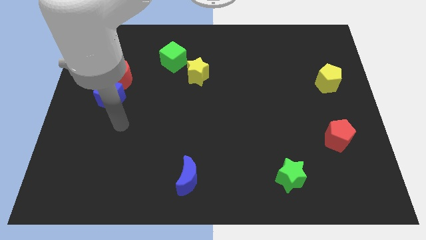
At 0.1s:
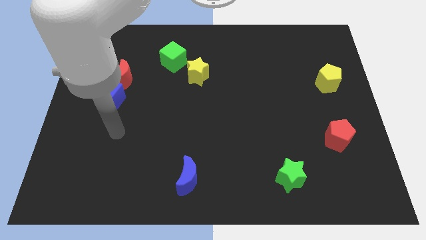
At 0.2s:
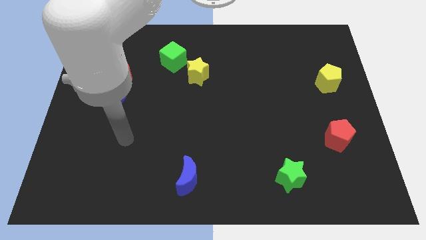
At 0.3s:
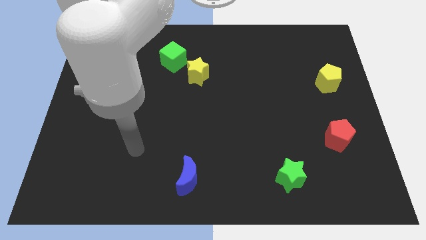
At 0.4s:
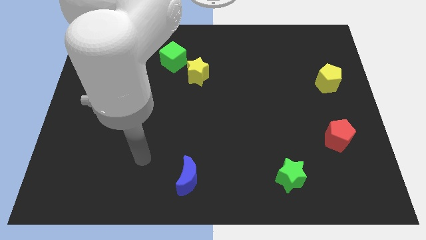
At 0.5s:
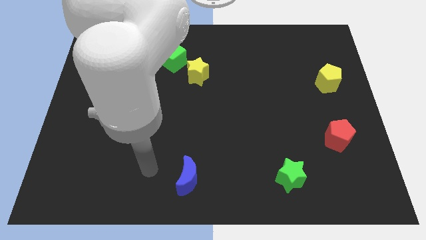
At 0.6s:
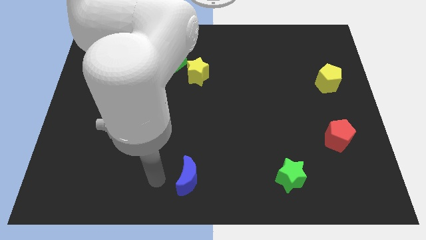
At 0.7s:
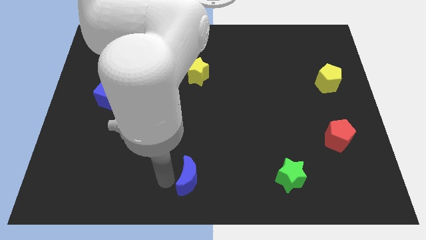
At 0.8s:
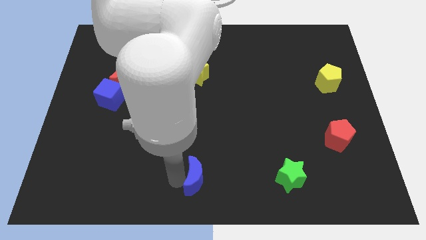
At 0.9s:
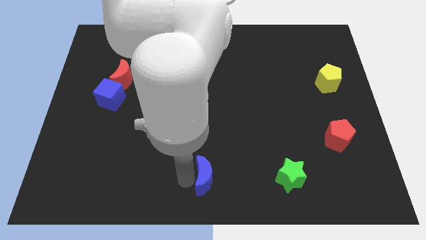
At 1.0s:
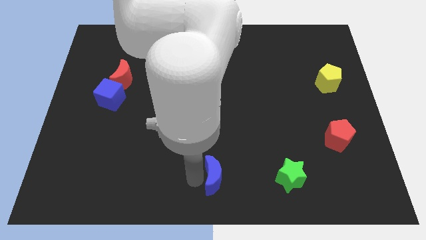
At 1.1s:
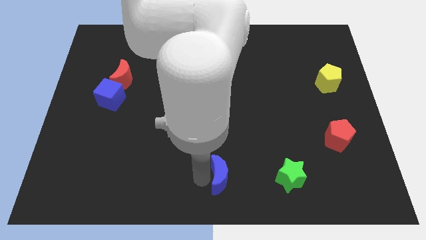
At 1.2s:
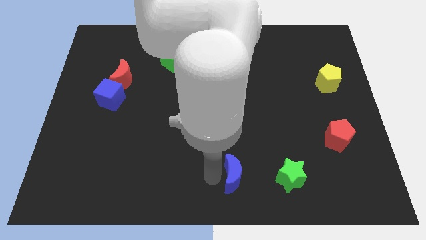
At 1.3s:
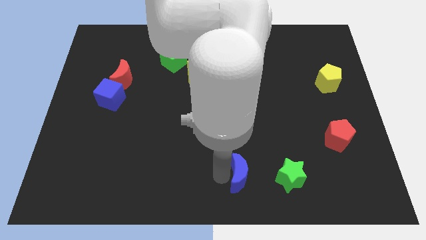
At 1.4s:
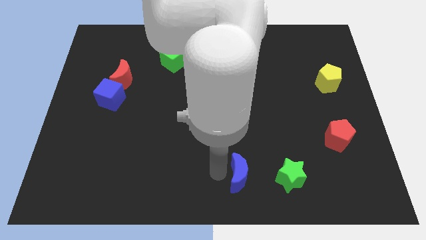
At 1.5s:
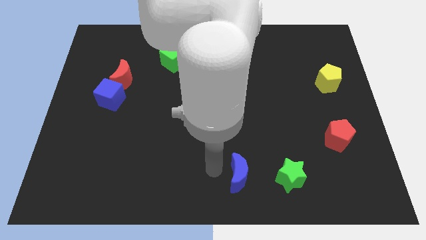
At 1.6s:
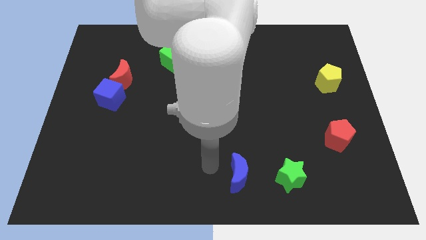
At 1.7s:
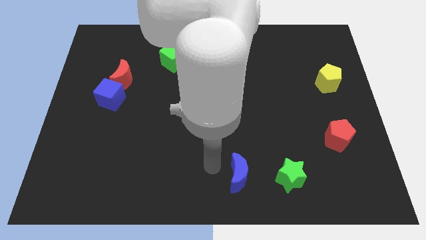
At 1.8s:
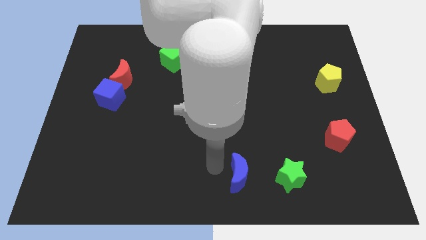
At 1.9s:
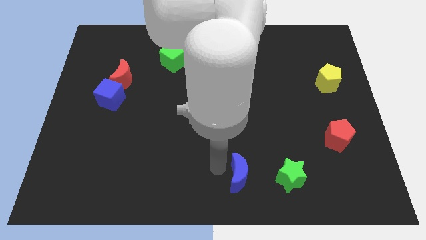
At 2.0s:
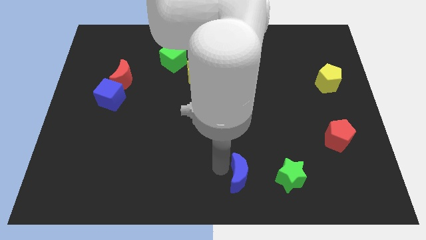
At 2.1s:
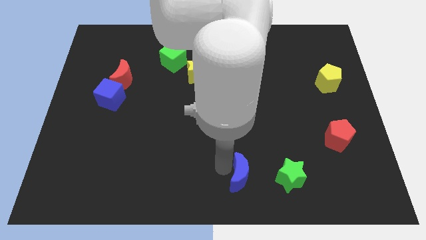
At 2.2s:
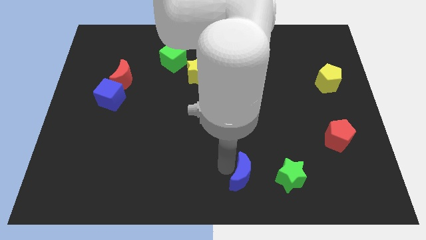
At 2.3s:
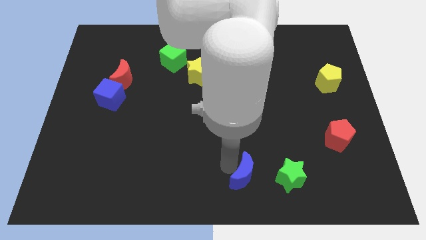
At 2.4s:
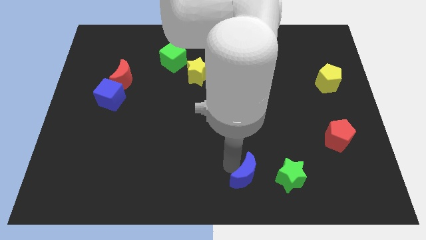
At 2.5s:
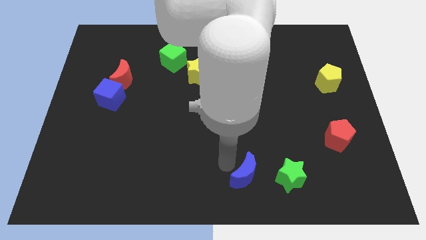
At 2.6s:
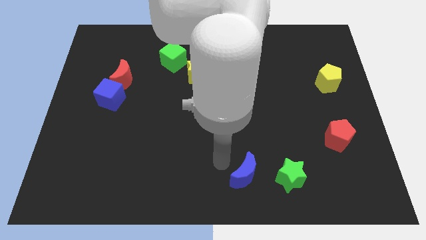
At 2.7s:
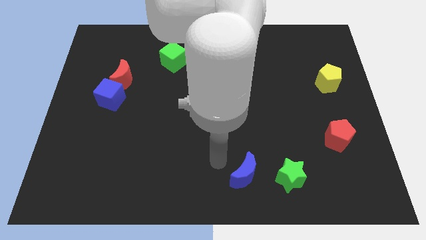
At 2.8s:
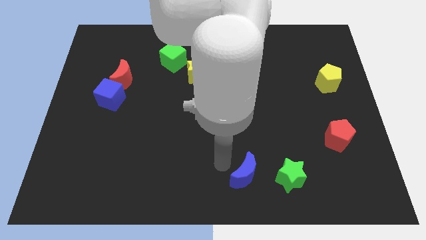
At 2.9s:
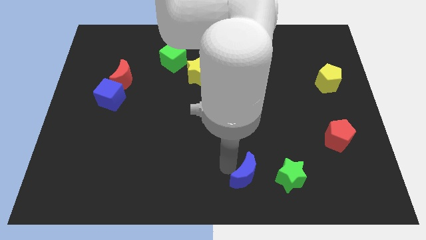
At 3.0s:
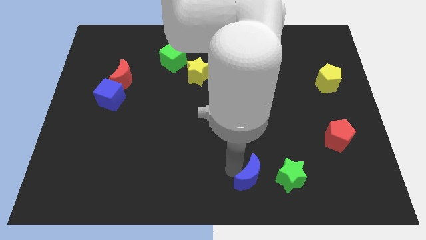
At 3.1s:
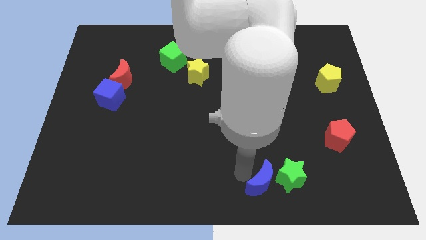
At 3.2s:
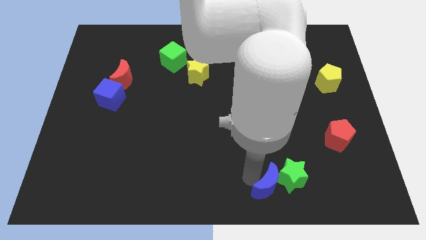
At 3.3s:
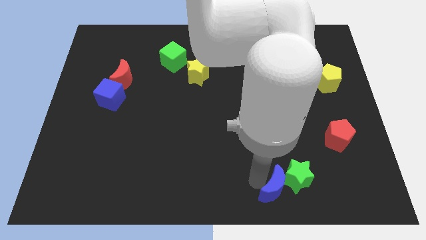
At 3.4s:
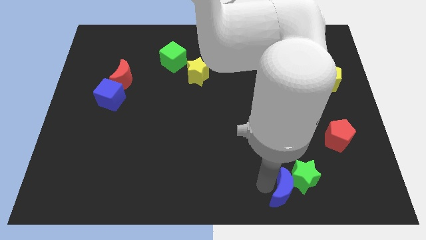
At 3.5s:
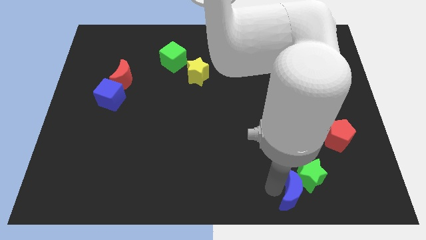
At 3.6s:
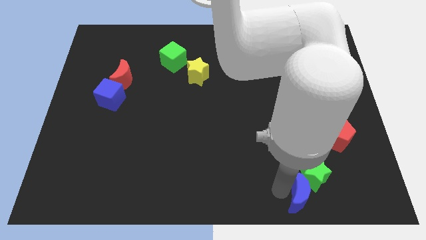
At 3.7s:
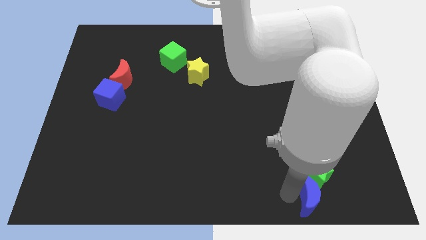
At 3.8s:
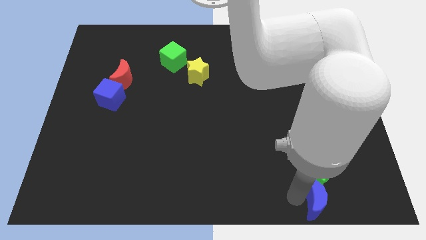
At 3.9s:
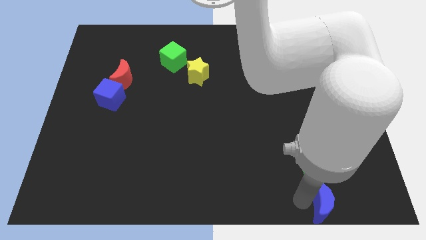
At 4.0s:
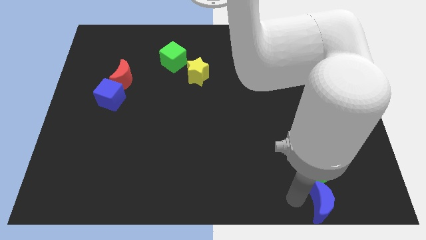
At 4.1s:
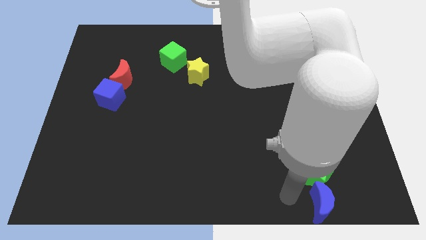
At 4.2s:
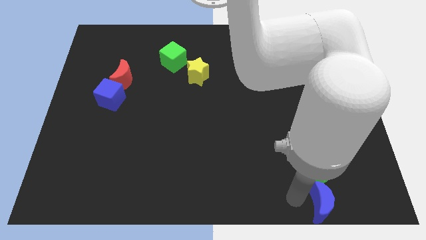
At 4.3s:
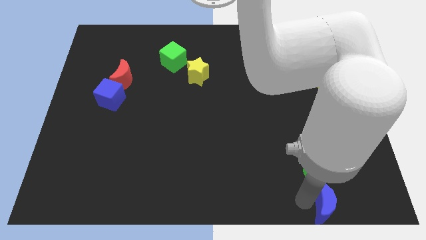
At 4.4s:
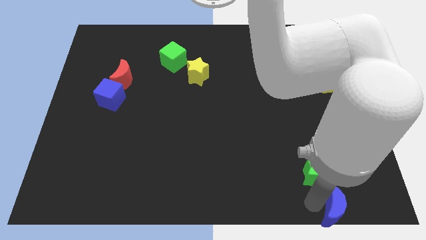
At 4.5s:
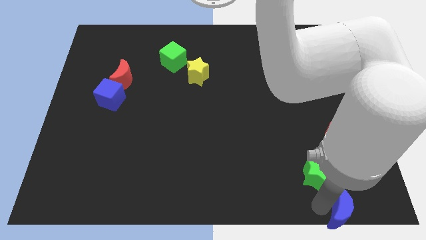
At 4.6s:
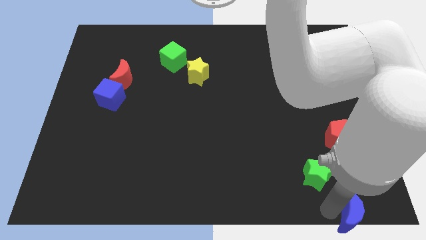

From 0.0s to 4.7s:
move the blue moon to the lower right corner

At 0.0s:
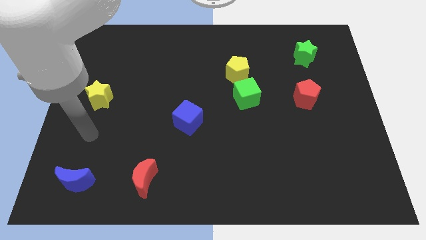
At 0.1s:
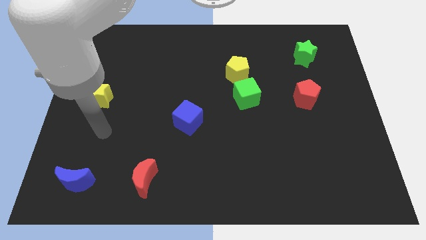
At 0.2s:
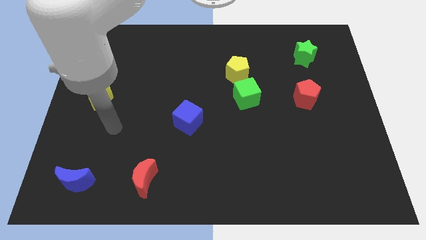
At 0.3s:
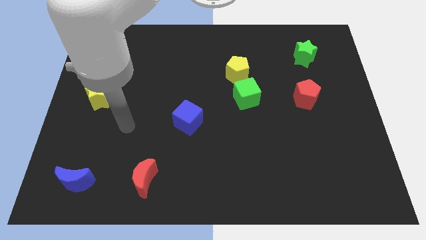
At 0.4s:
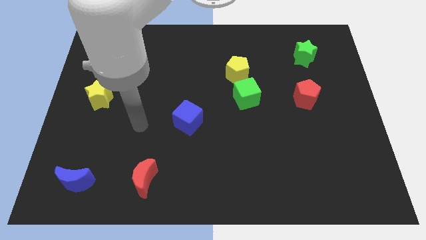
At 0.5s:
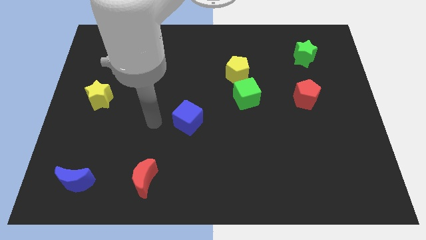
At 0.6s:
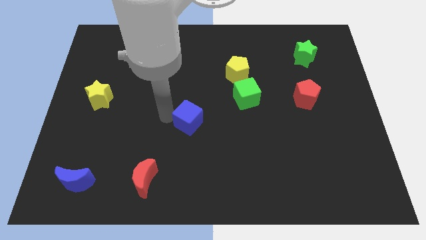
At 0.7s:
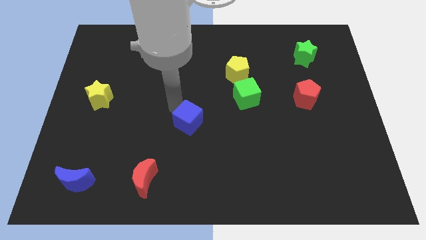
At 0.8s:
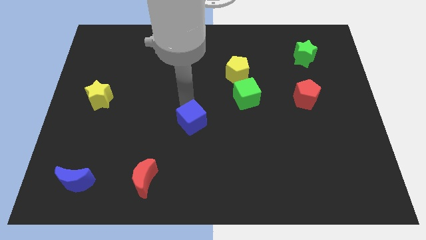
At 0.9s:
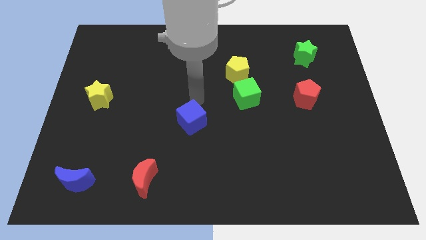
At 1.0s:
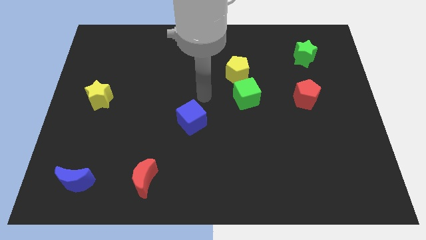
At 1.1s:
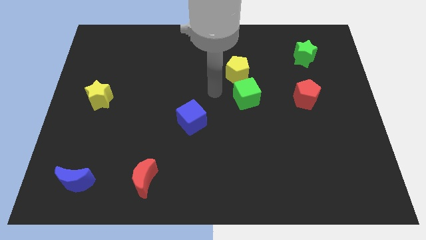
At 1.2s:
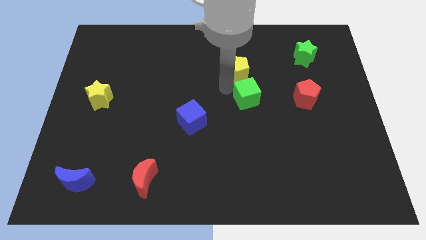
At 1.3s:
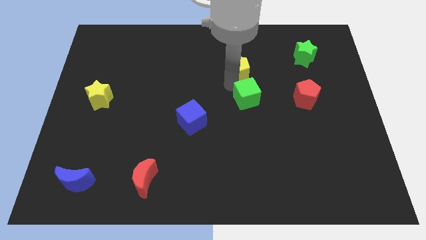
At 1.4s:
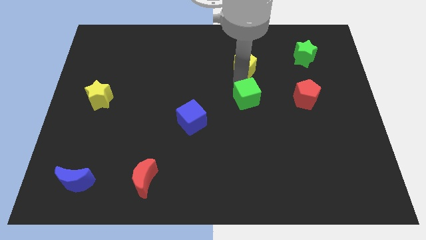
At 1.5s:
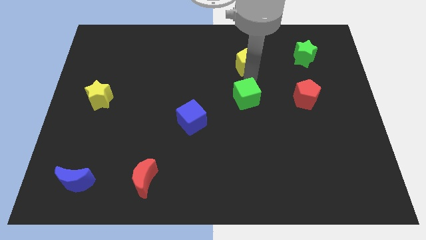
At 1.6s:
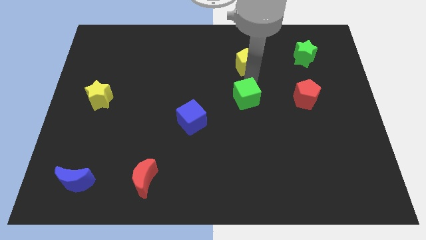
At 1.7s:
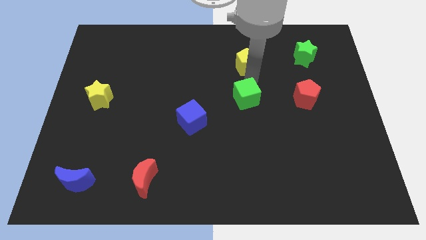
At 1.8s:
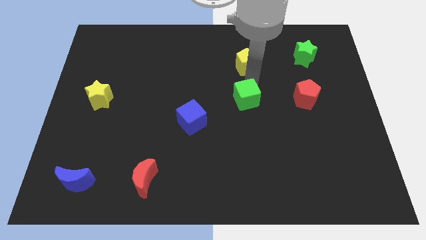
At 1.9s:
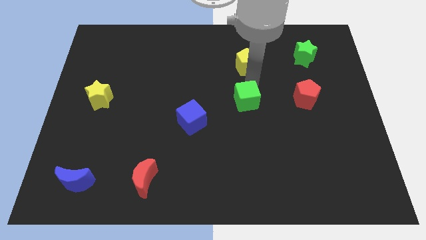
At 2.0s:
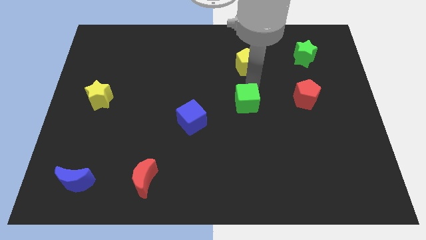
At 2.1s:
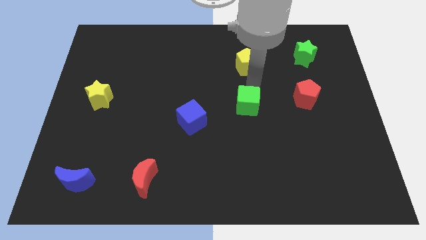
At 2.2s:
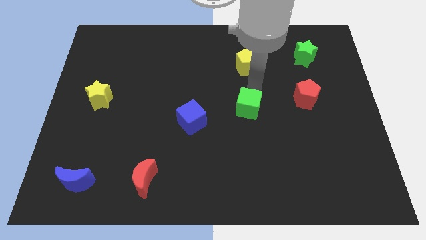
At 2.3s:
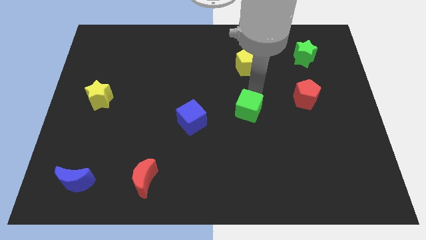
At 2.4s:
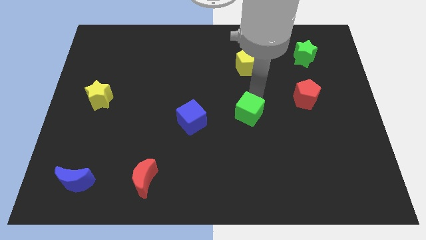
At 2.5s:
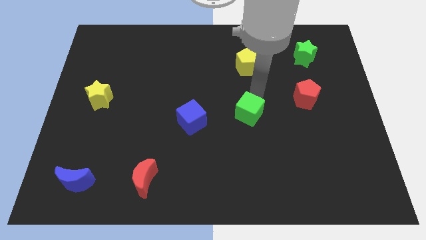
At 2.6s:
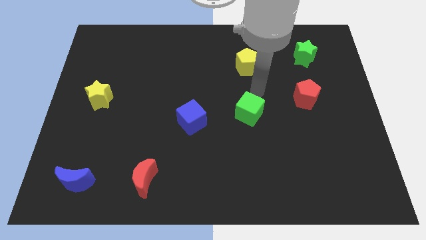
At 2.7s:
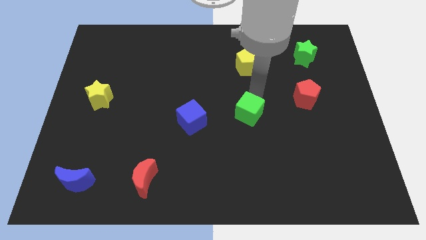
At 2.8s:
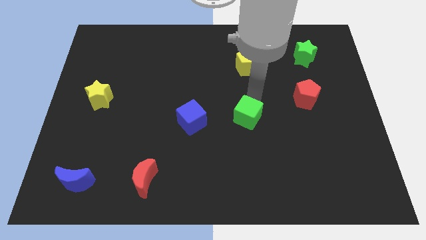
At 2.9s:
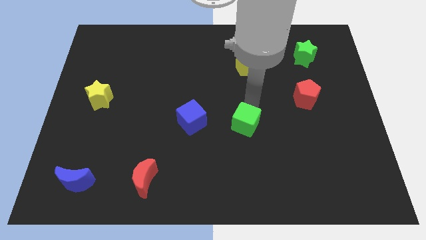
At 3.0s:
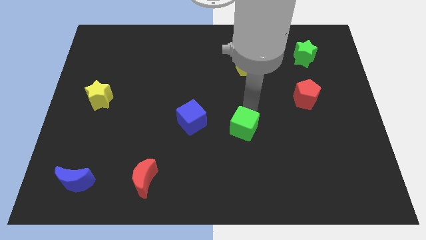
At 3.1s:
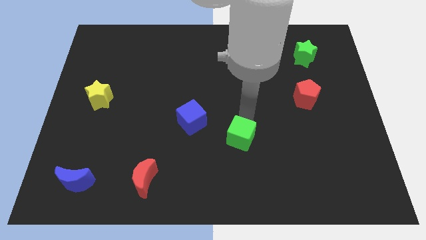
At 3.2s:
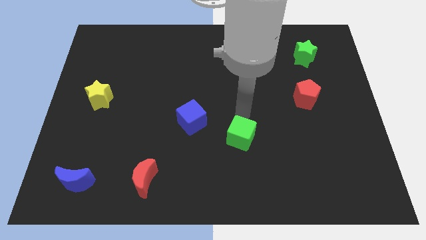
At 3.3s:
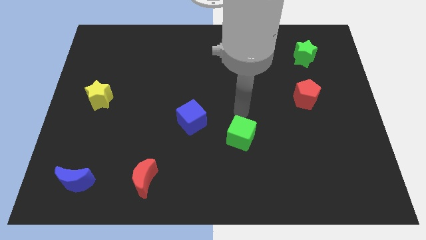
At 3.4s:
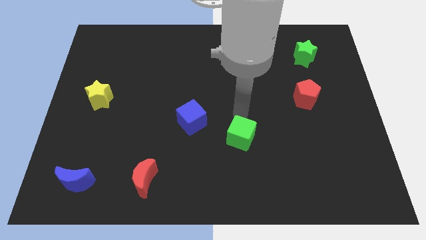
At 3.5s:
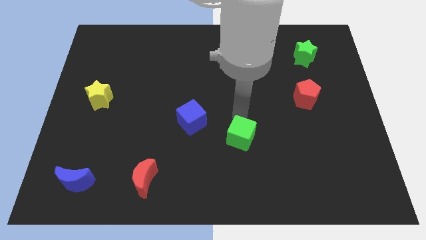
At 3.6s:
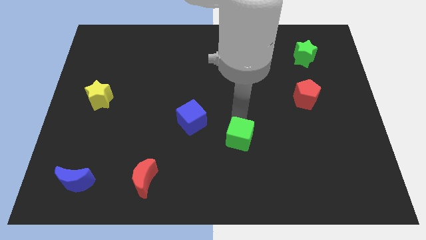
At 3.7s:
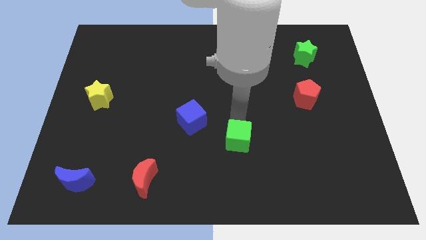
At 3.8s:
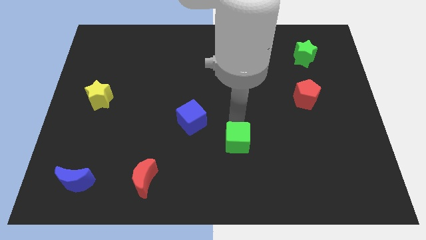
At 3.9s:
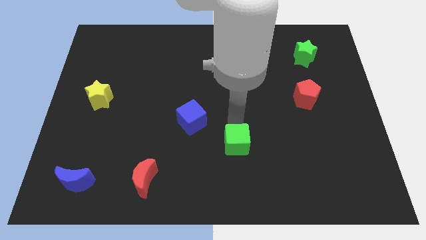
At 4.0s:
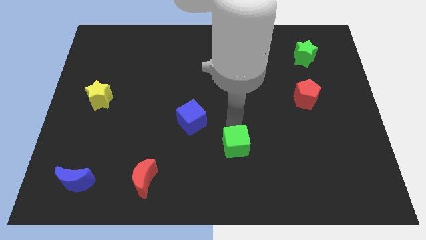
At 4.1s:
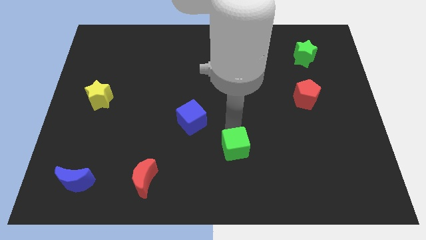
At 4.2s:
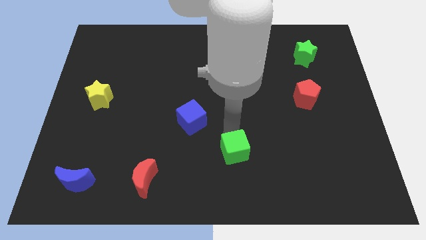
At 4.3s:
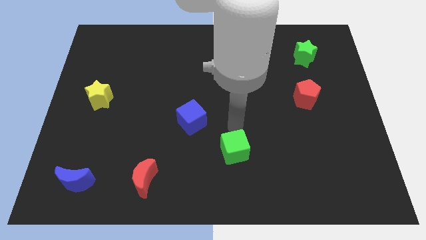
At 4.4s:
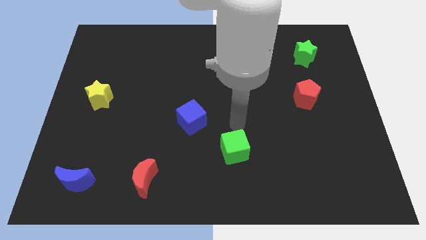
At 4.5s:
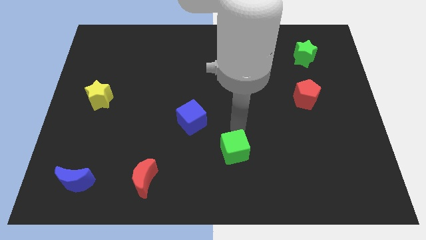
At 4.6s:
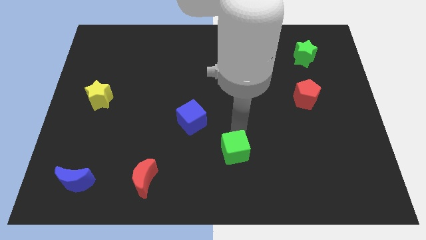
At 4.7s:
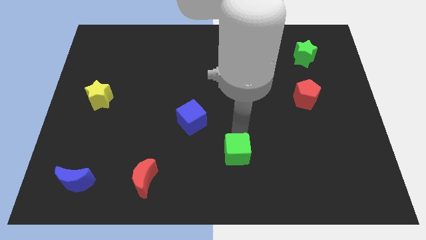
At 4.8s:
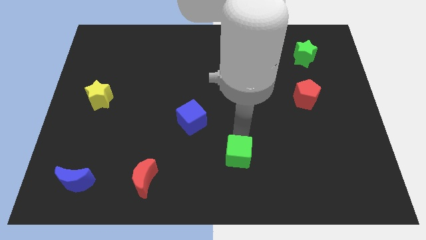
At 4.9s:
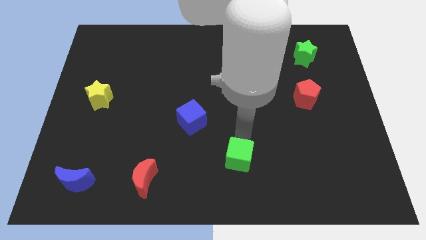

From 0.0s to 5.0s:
slide the green cube to the bottom side
